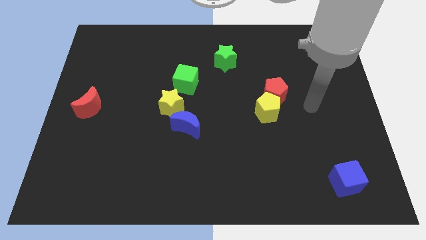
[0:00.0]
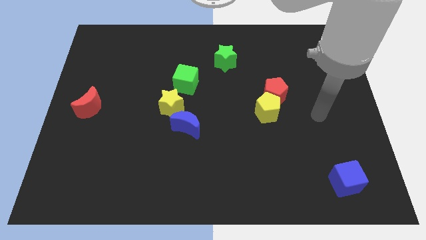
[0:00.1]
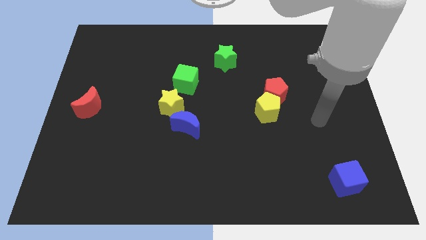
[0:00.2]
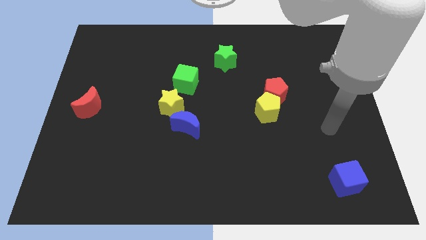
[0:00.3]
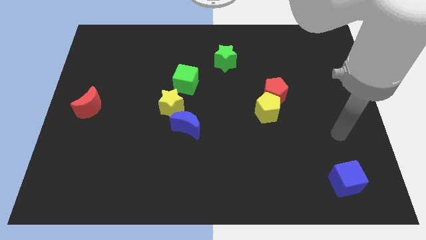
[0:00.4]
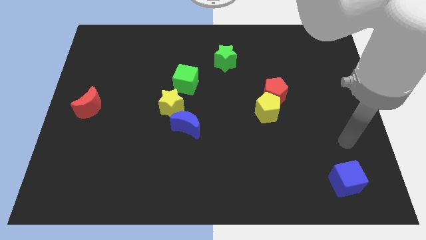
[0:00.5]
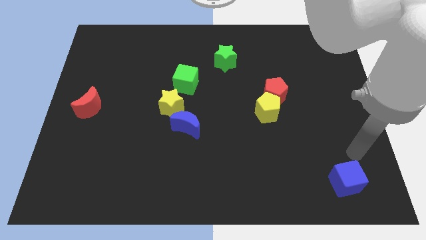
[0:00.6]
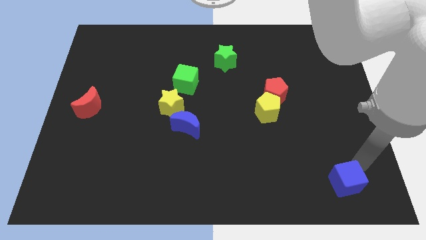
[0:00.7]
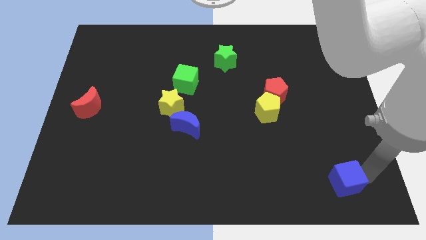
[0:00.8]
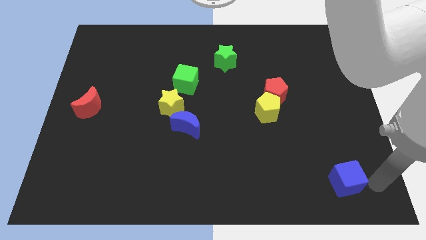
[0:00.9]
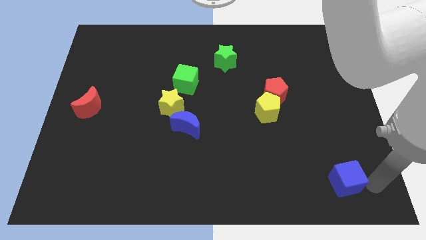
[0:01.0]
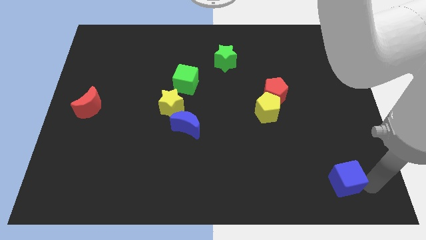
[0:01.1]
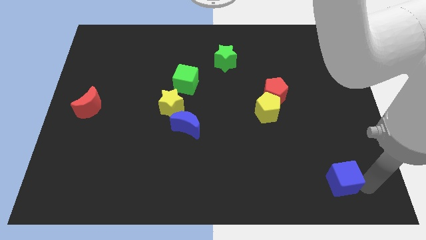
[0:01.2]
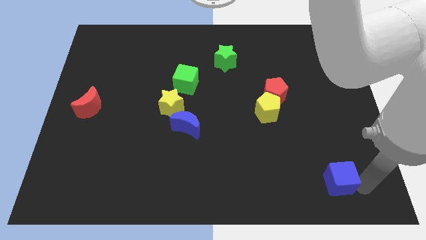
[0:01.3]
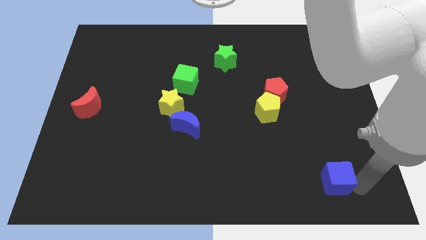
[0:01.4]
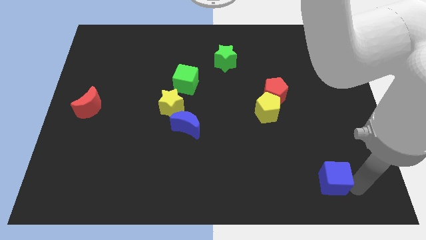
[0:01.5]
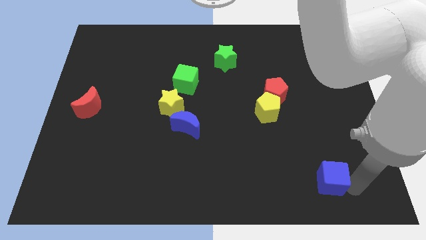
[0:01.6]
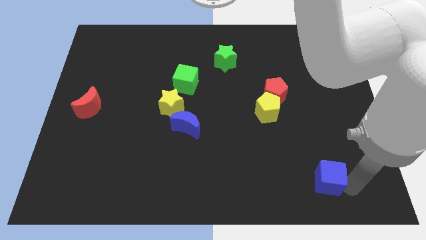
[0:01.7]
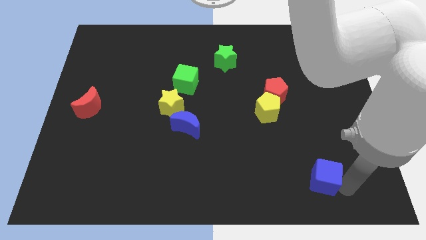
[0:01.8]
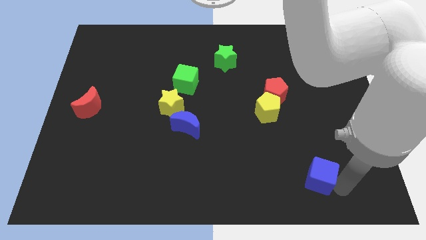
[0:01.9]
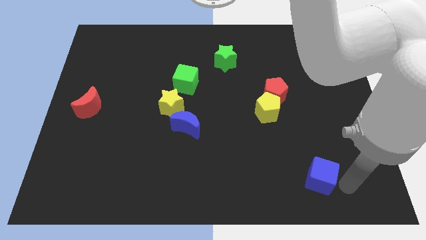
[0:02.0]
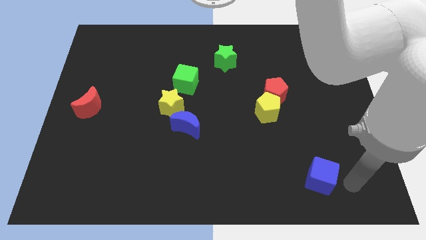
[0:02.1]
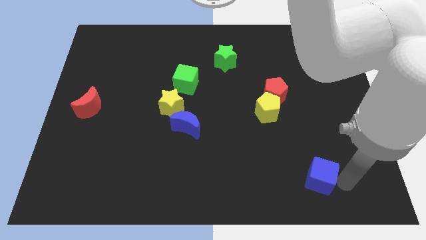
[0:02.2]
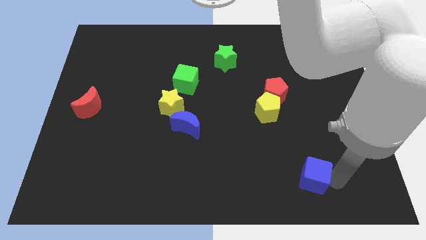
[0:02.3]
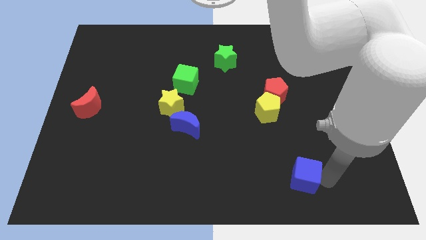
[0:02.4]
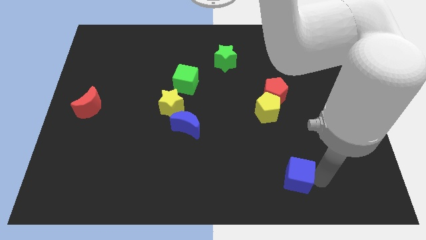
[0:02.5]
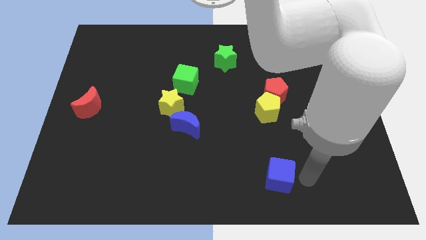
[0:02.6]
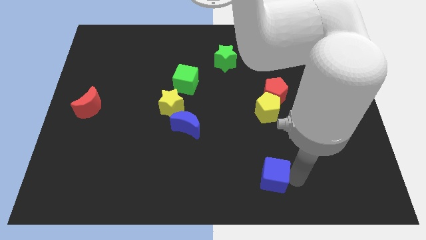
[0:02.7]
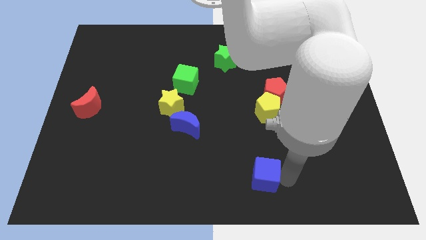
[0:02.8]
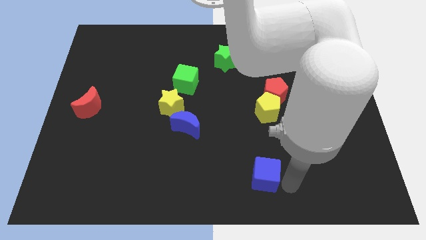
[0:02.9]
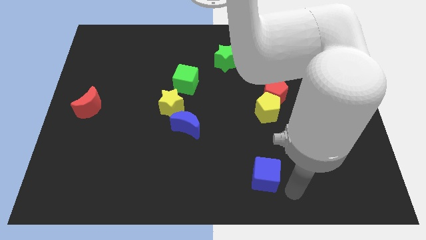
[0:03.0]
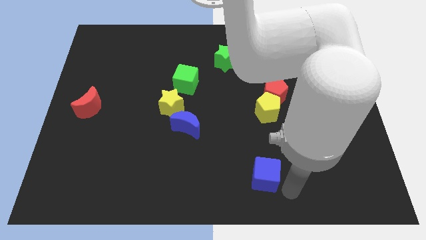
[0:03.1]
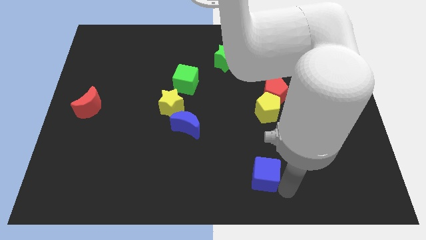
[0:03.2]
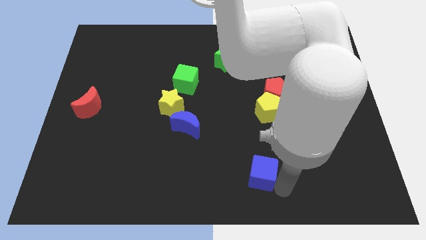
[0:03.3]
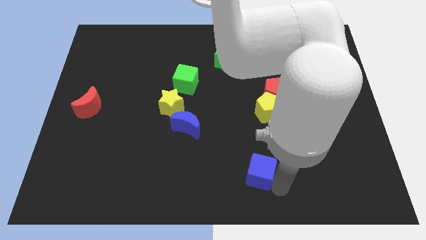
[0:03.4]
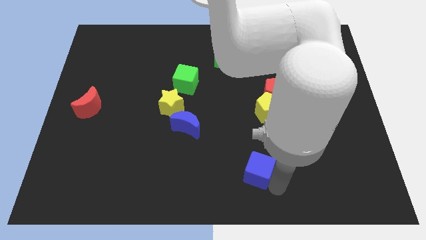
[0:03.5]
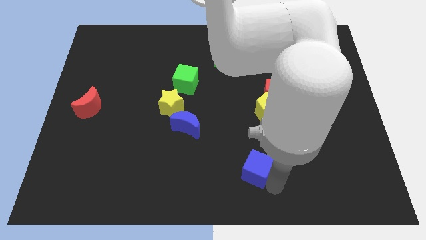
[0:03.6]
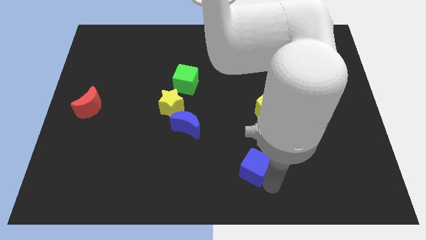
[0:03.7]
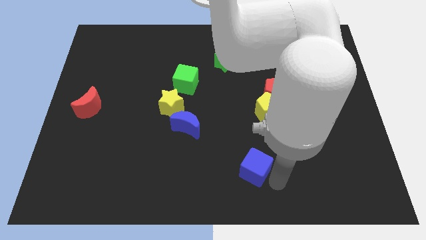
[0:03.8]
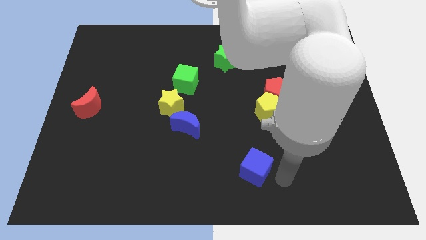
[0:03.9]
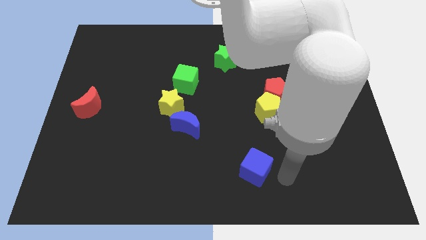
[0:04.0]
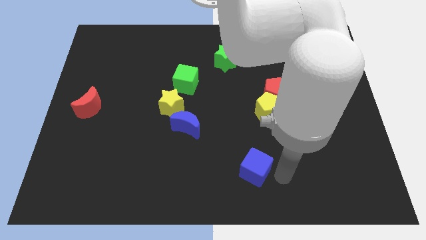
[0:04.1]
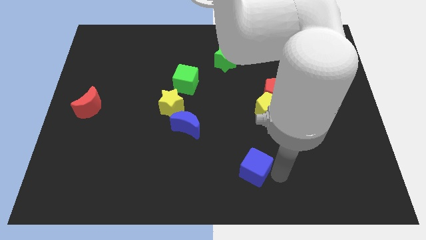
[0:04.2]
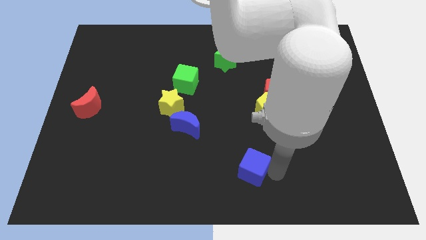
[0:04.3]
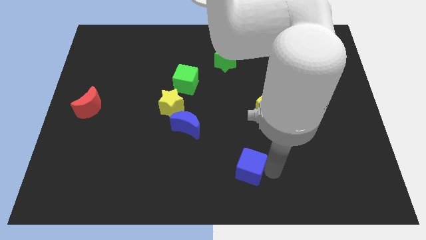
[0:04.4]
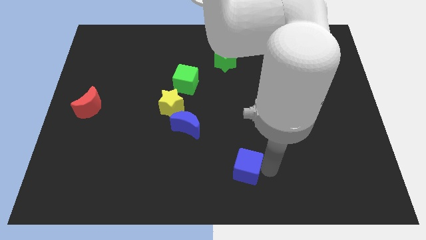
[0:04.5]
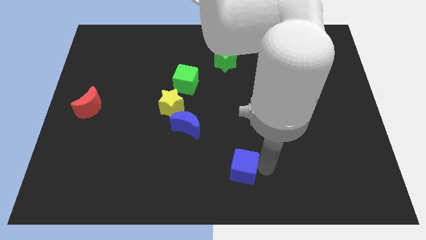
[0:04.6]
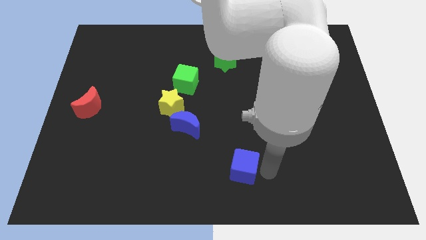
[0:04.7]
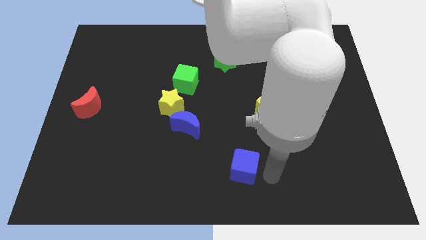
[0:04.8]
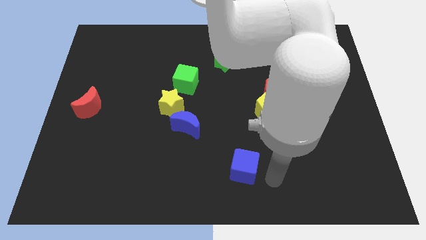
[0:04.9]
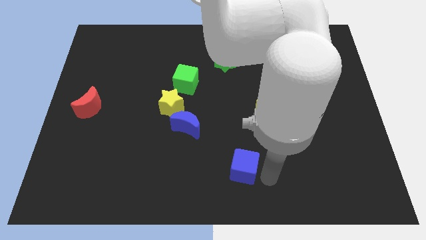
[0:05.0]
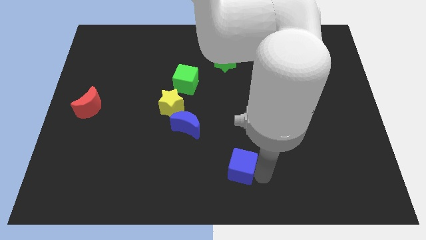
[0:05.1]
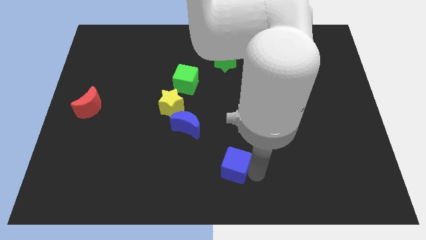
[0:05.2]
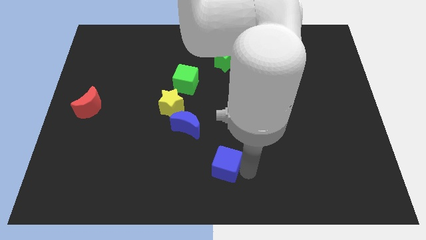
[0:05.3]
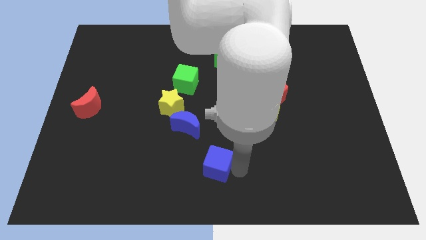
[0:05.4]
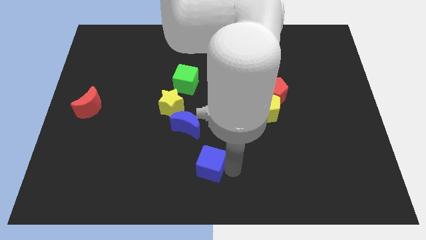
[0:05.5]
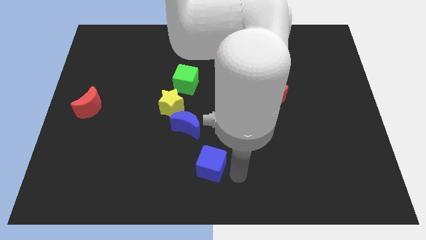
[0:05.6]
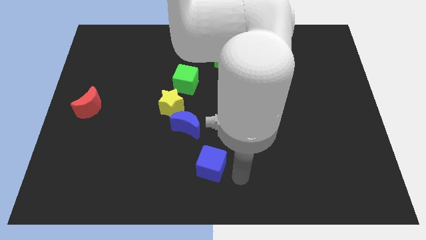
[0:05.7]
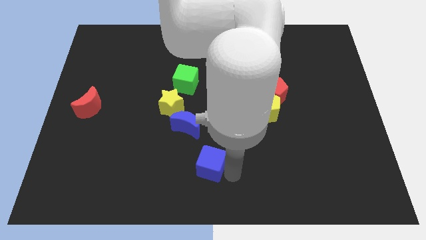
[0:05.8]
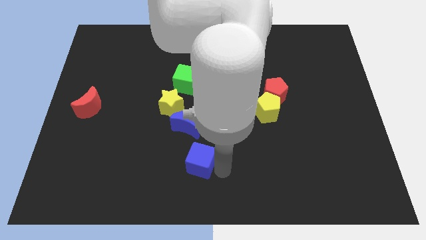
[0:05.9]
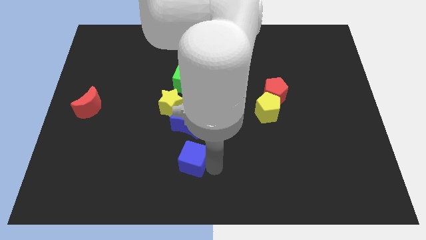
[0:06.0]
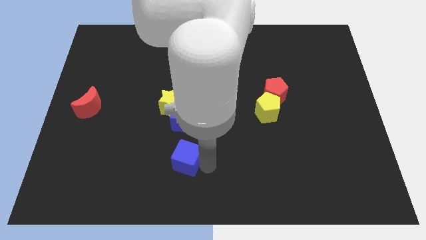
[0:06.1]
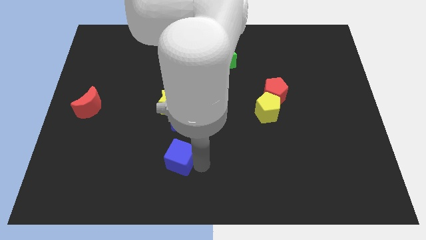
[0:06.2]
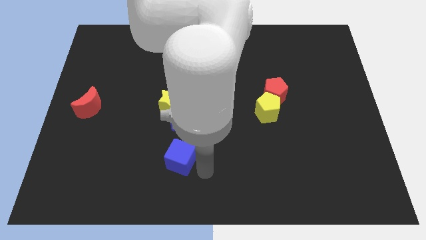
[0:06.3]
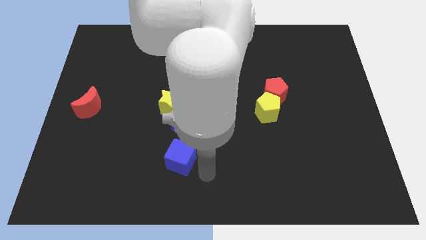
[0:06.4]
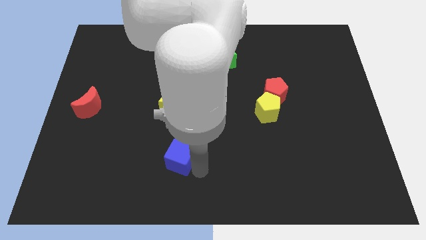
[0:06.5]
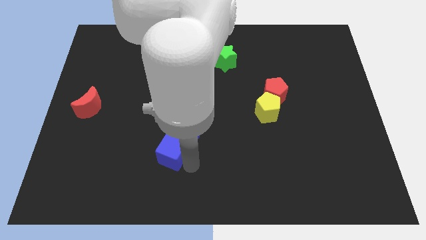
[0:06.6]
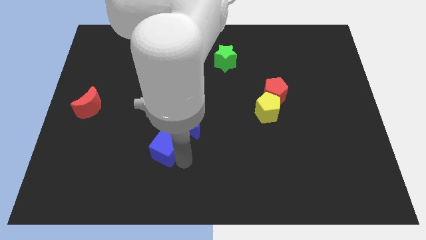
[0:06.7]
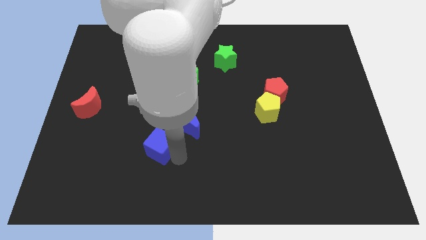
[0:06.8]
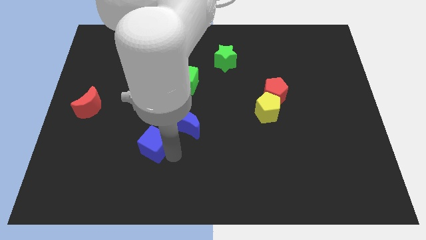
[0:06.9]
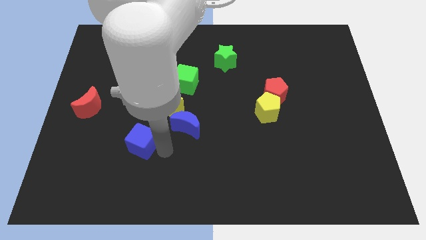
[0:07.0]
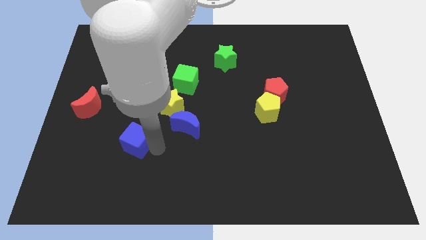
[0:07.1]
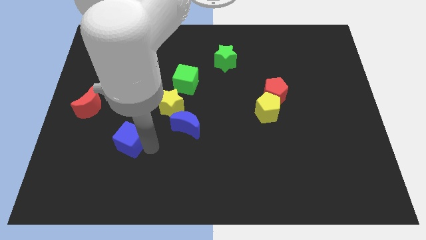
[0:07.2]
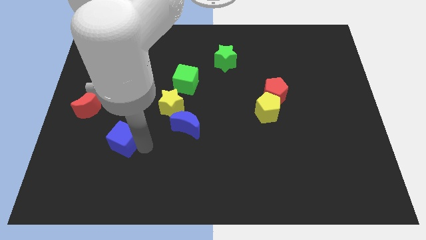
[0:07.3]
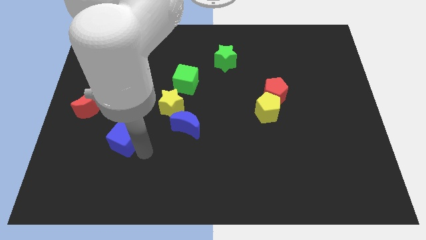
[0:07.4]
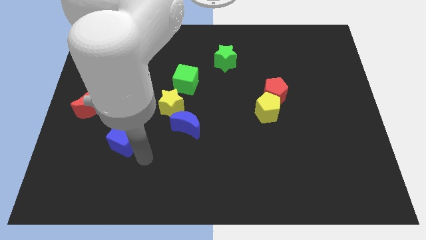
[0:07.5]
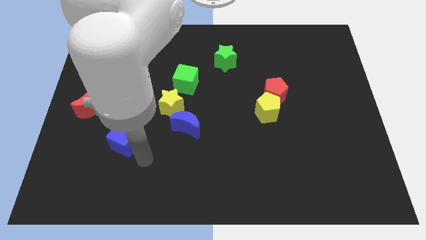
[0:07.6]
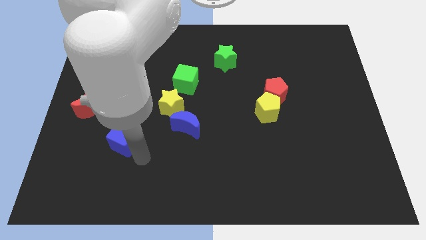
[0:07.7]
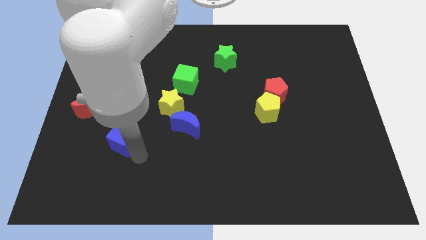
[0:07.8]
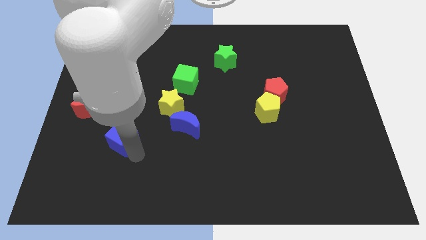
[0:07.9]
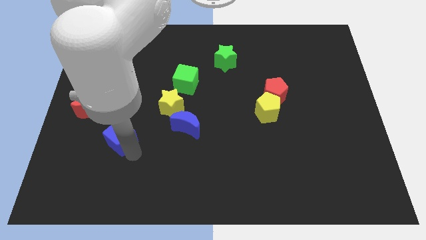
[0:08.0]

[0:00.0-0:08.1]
put the blue cube to the bottom right side of the red moon
